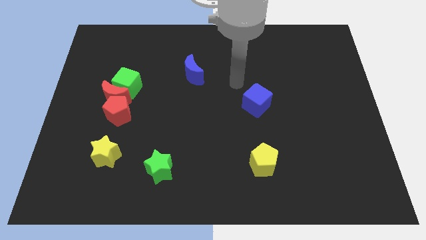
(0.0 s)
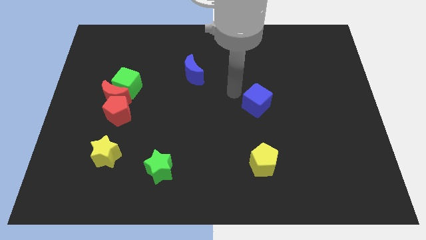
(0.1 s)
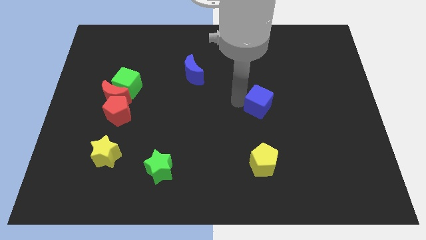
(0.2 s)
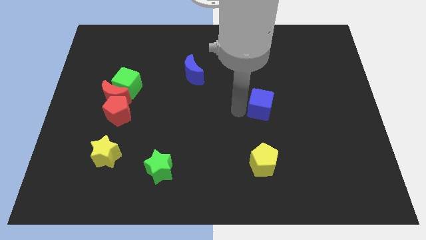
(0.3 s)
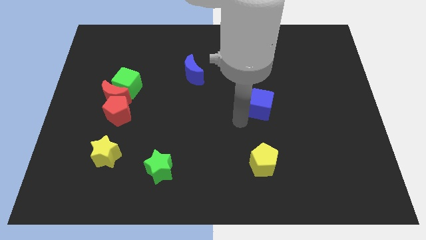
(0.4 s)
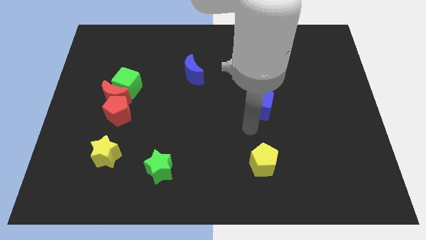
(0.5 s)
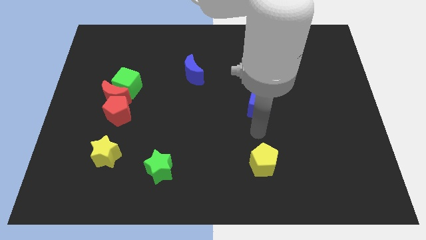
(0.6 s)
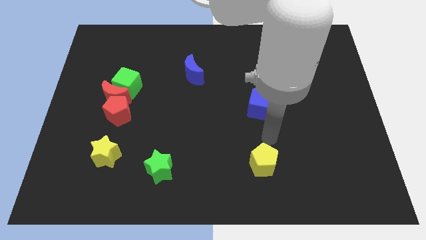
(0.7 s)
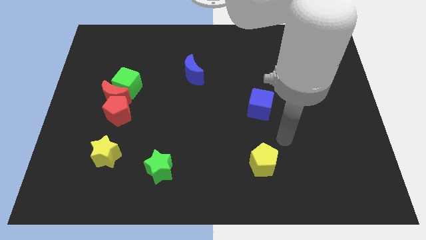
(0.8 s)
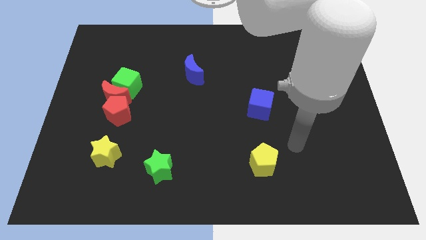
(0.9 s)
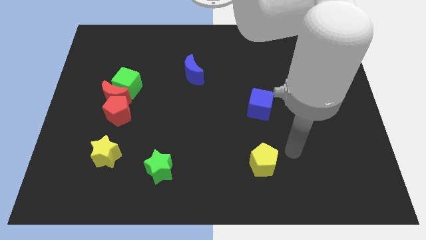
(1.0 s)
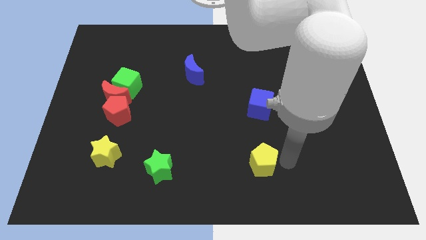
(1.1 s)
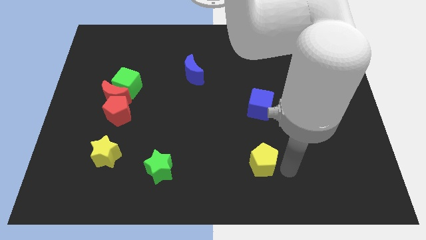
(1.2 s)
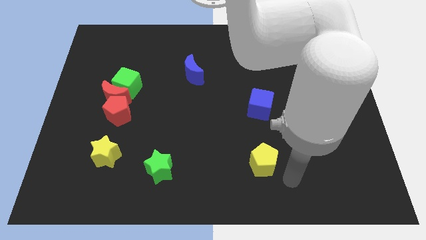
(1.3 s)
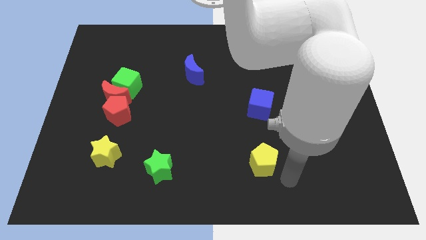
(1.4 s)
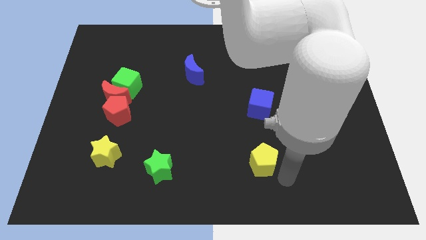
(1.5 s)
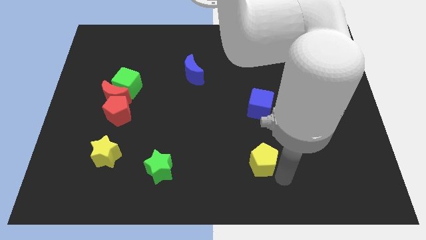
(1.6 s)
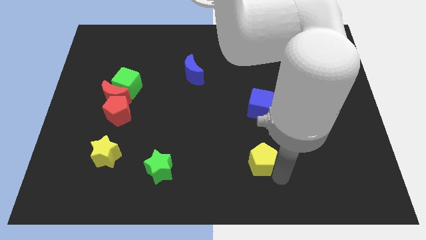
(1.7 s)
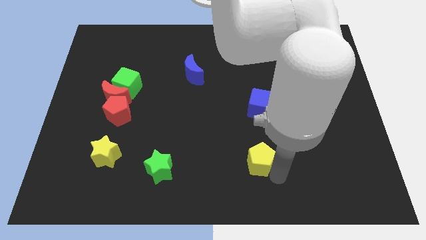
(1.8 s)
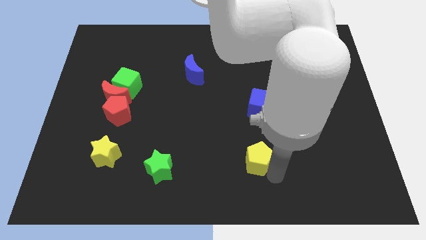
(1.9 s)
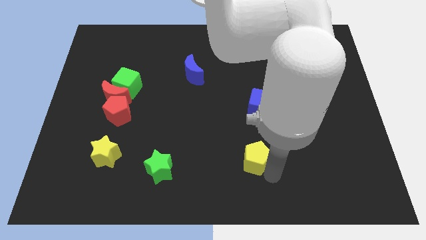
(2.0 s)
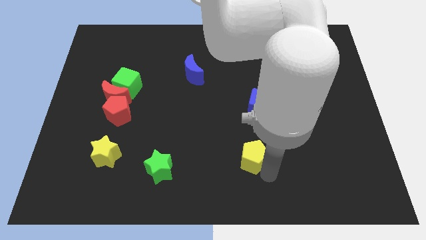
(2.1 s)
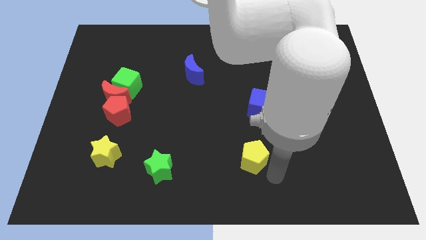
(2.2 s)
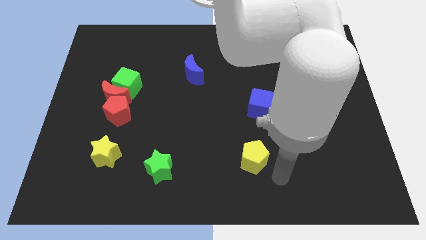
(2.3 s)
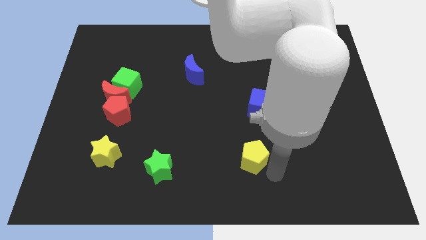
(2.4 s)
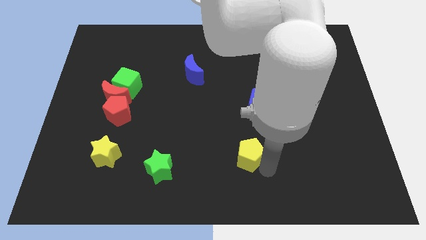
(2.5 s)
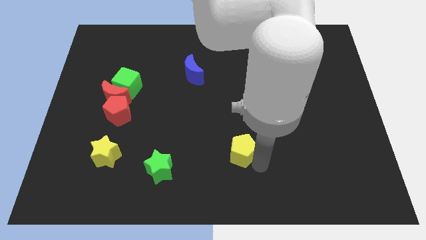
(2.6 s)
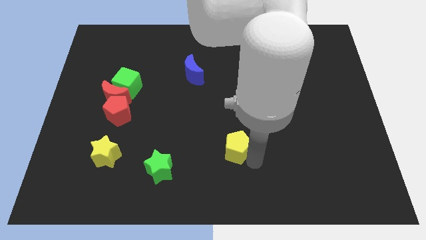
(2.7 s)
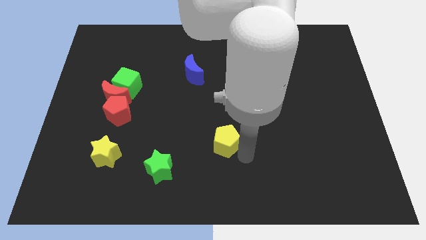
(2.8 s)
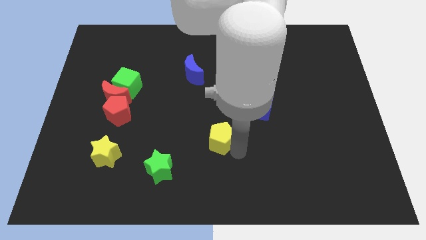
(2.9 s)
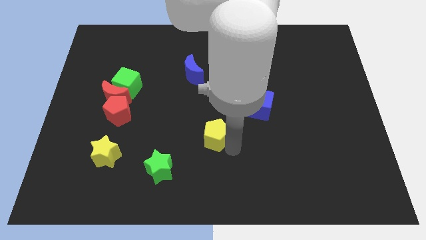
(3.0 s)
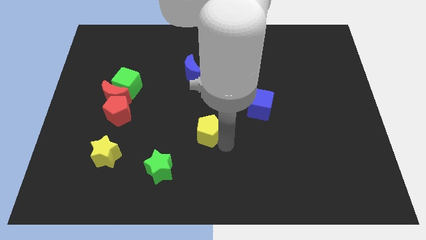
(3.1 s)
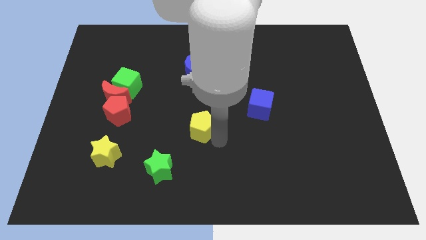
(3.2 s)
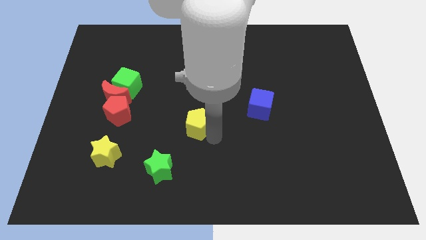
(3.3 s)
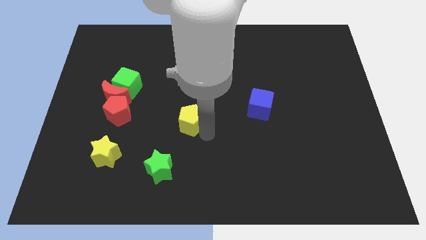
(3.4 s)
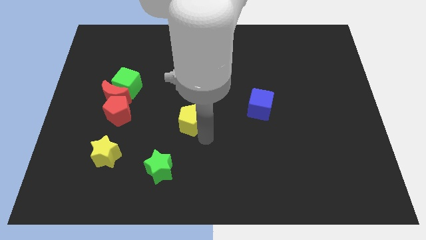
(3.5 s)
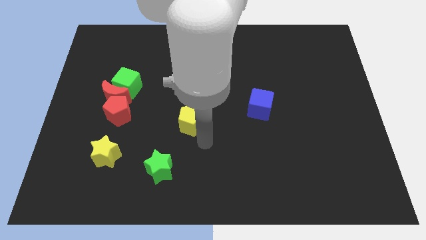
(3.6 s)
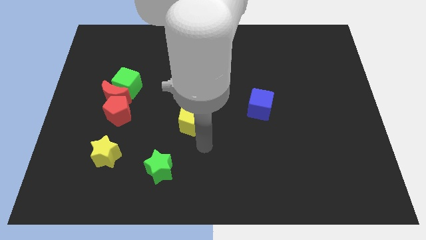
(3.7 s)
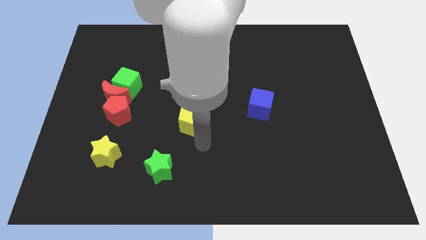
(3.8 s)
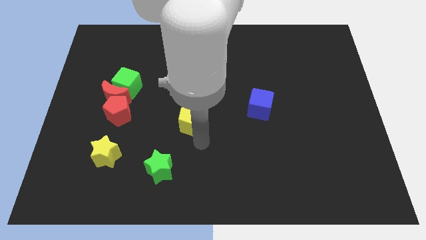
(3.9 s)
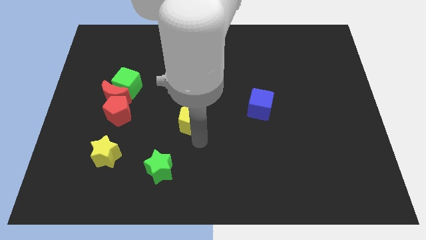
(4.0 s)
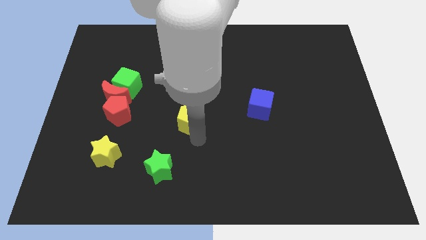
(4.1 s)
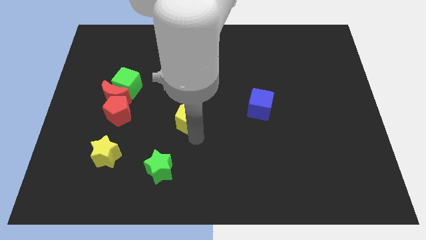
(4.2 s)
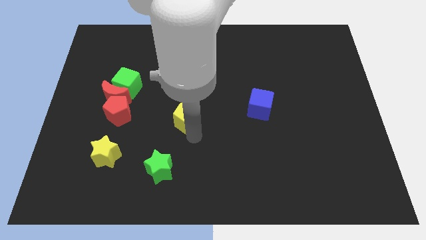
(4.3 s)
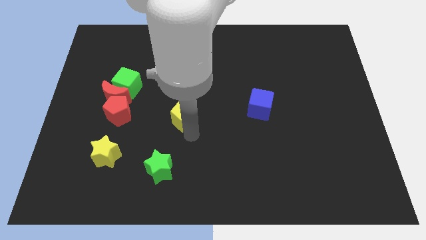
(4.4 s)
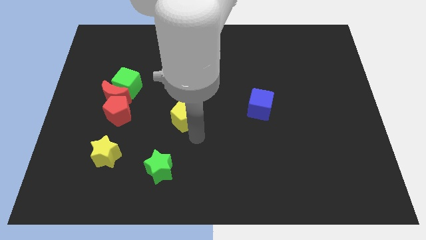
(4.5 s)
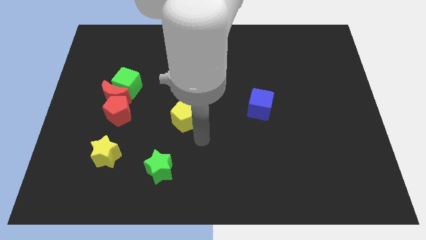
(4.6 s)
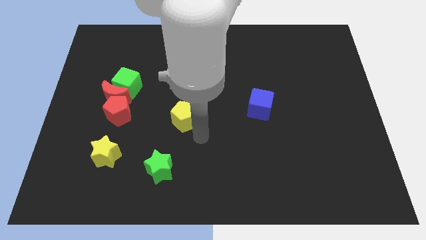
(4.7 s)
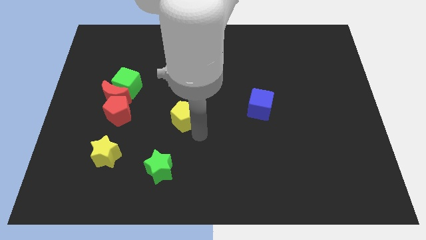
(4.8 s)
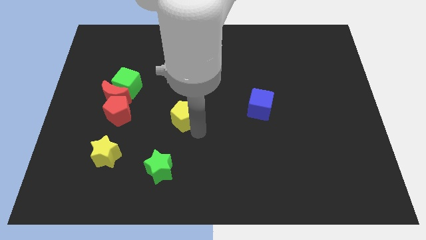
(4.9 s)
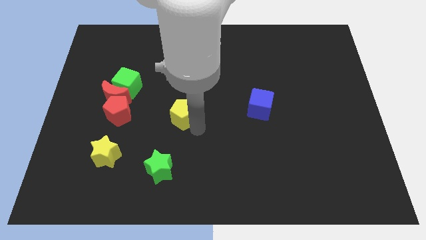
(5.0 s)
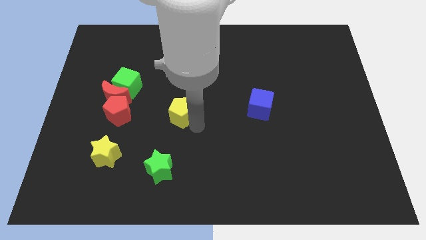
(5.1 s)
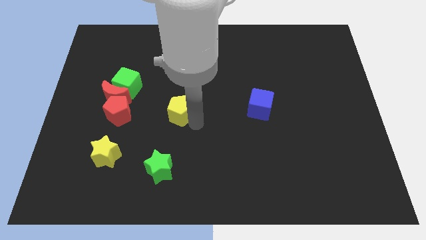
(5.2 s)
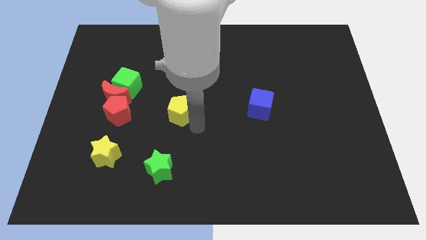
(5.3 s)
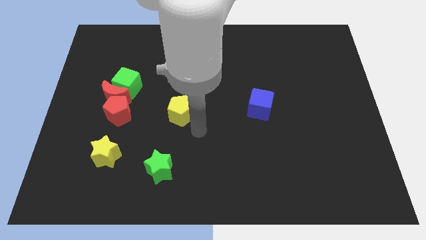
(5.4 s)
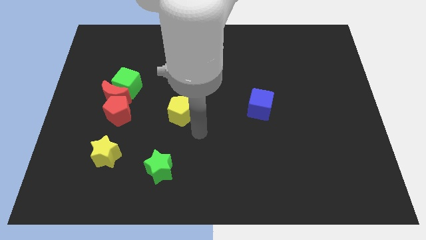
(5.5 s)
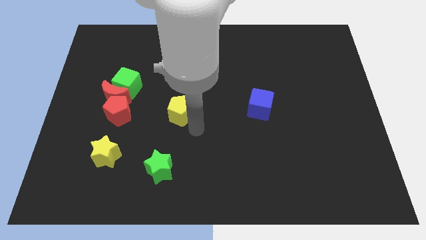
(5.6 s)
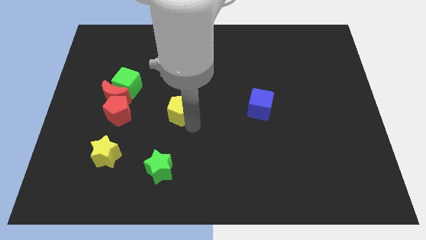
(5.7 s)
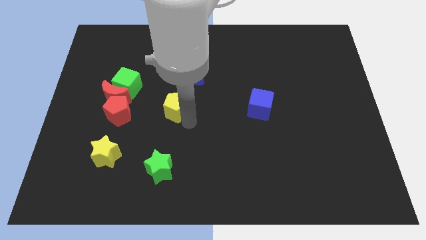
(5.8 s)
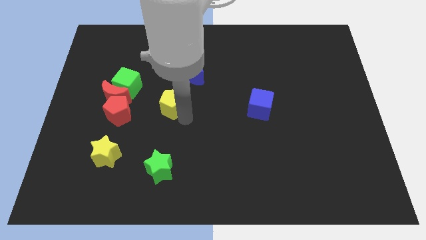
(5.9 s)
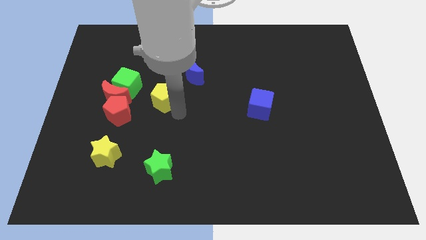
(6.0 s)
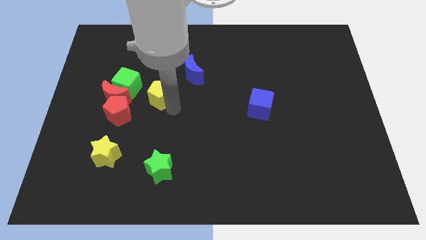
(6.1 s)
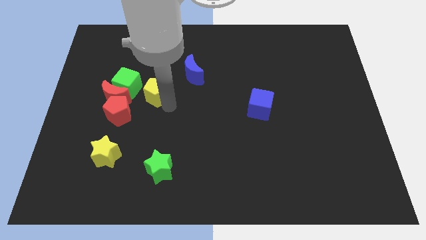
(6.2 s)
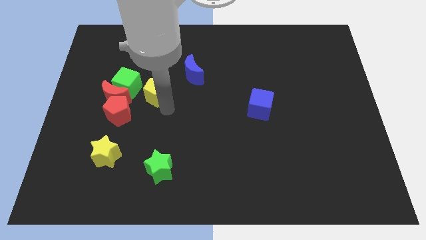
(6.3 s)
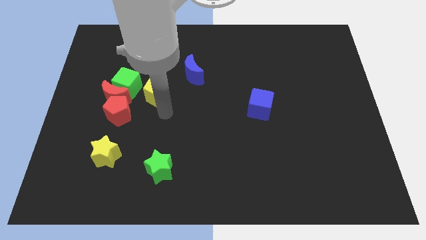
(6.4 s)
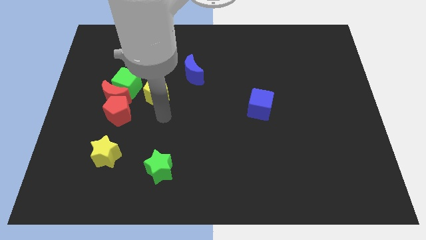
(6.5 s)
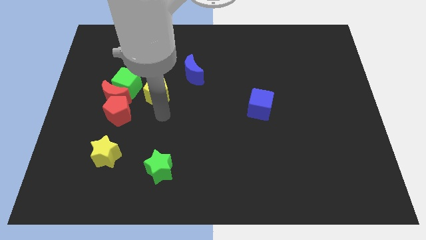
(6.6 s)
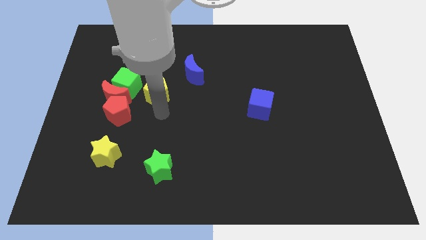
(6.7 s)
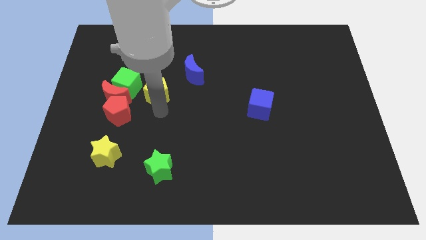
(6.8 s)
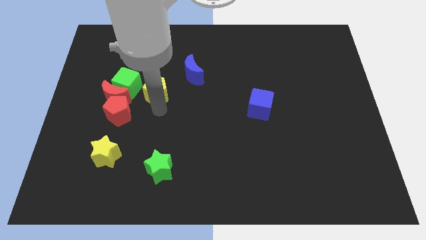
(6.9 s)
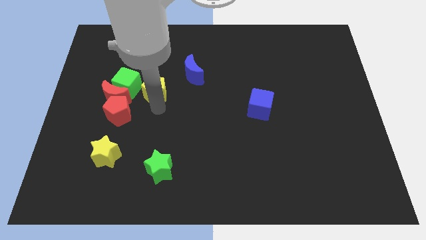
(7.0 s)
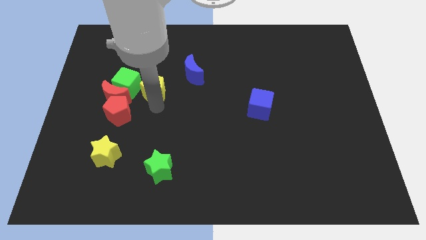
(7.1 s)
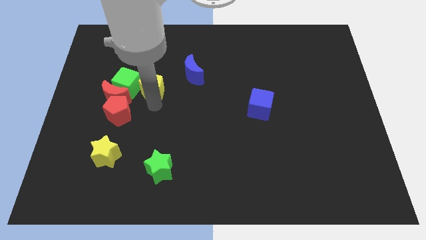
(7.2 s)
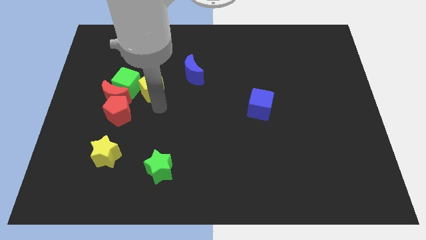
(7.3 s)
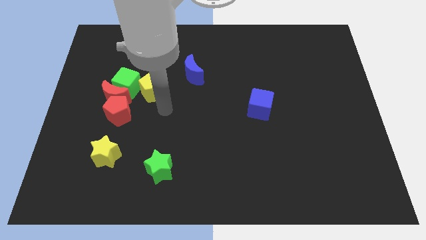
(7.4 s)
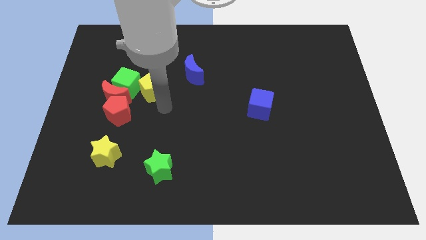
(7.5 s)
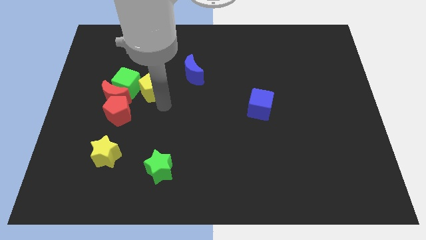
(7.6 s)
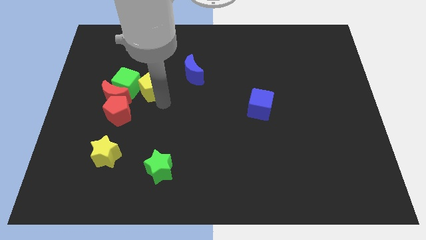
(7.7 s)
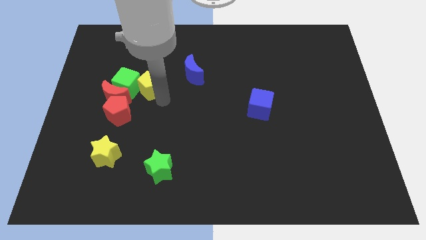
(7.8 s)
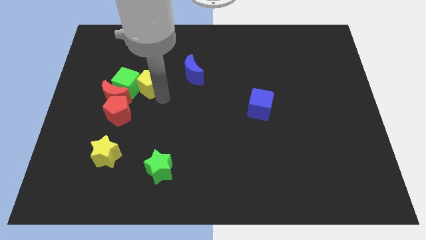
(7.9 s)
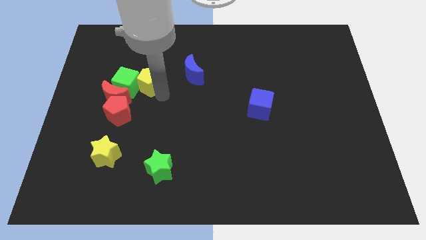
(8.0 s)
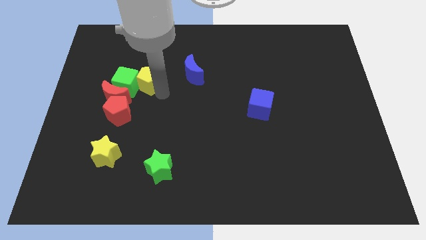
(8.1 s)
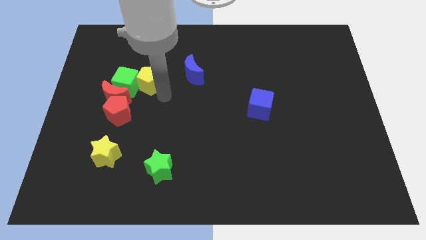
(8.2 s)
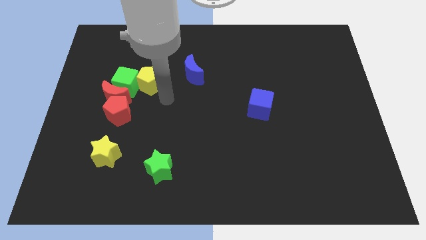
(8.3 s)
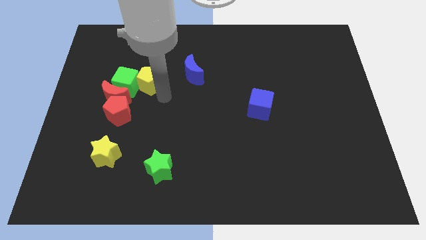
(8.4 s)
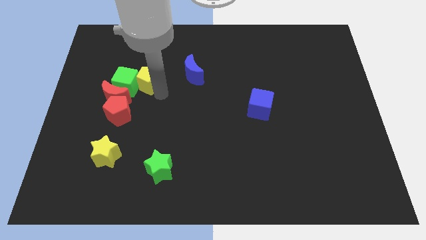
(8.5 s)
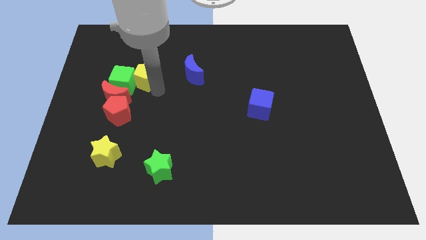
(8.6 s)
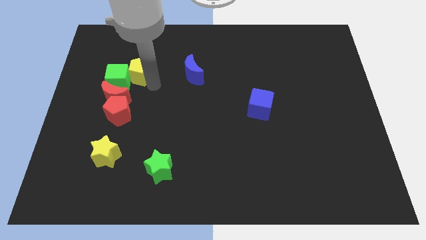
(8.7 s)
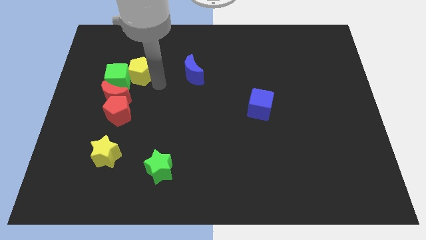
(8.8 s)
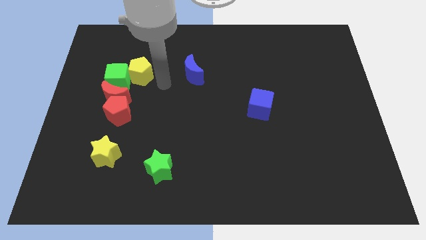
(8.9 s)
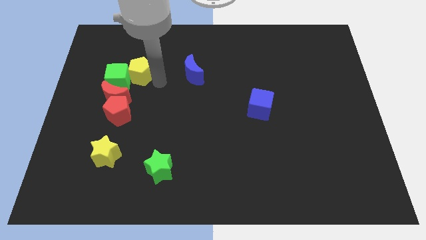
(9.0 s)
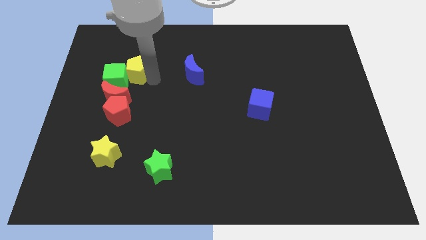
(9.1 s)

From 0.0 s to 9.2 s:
put the yellow pentagon to the top of the red moon
